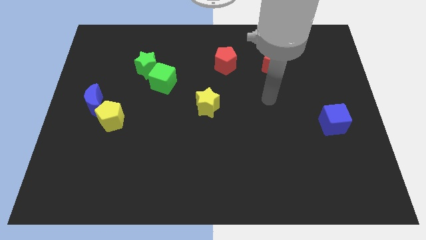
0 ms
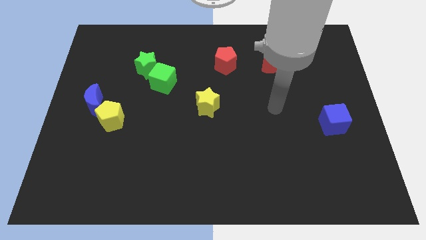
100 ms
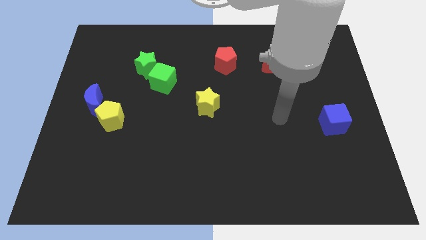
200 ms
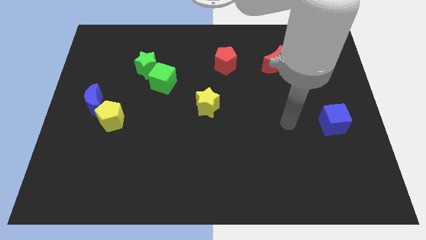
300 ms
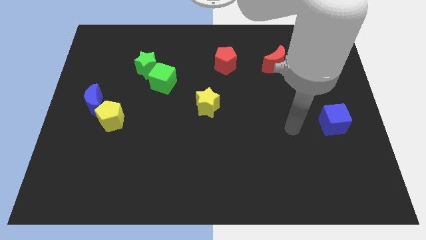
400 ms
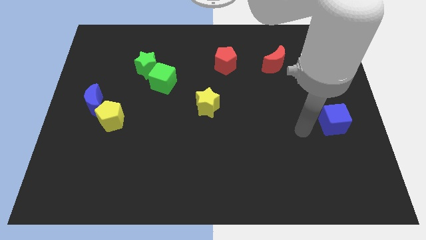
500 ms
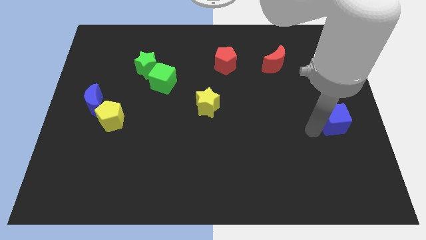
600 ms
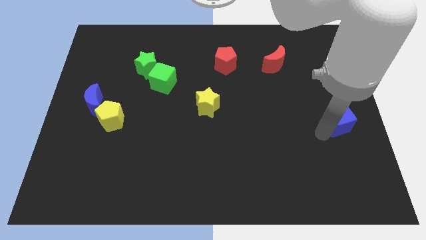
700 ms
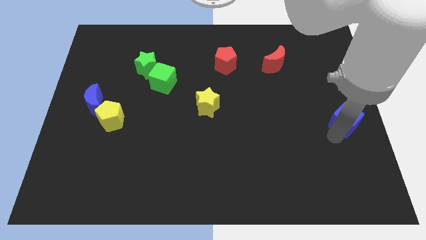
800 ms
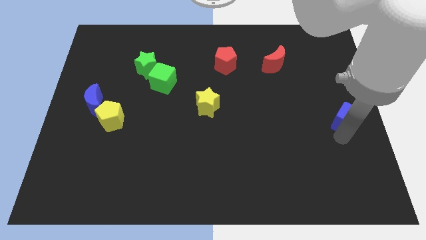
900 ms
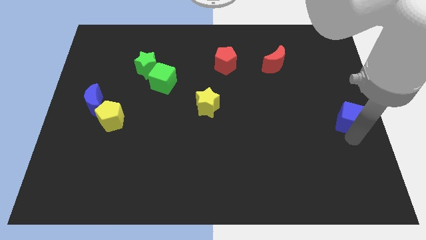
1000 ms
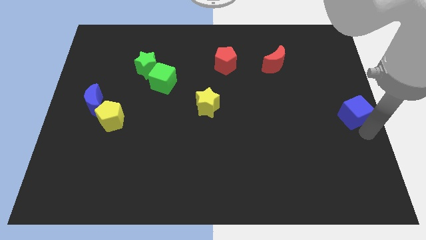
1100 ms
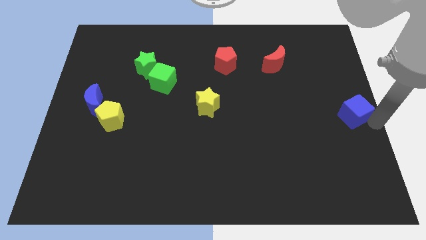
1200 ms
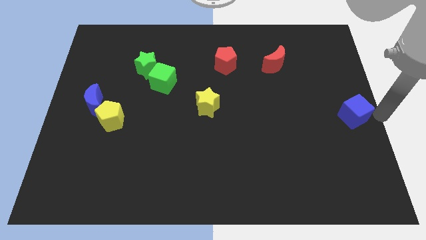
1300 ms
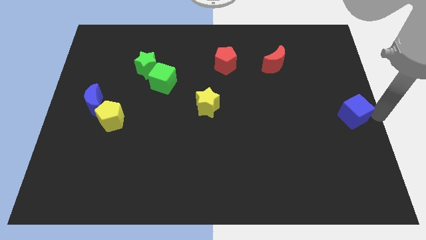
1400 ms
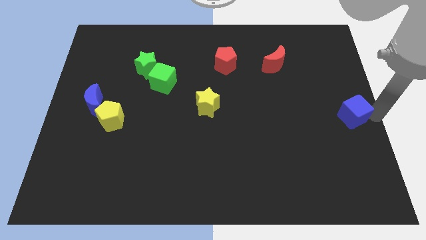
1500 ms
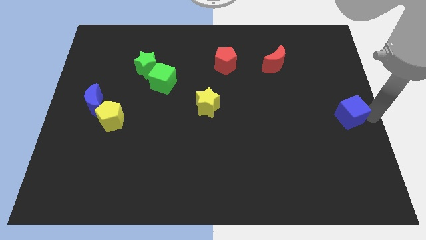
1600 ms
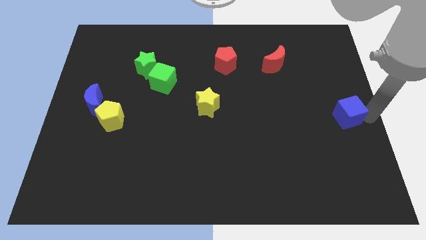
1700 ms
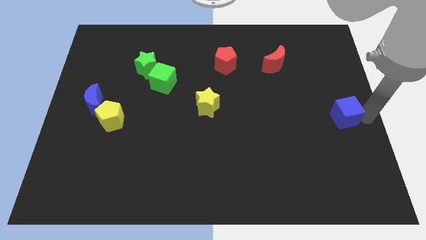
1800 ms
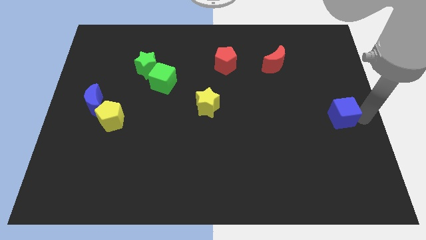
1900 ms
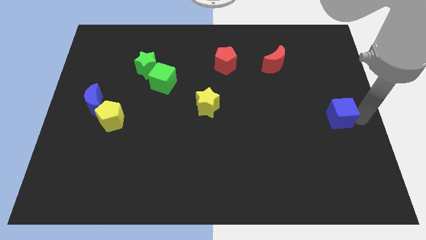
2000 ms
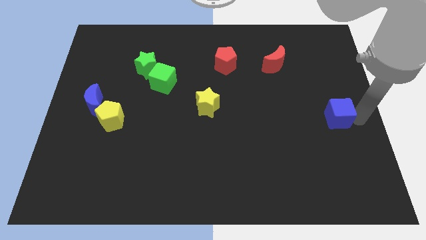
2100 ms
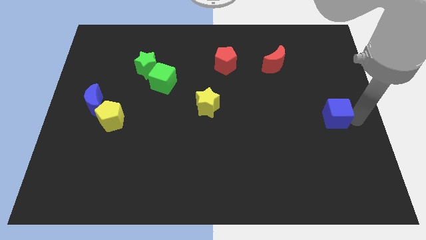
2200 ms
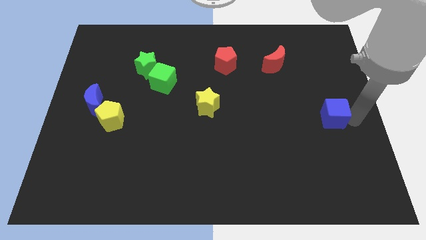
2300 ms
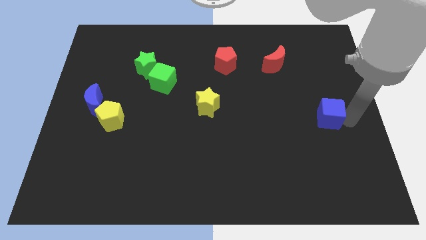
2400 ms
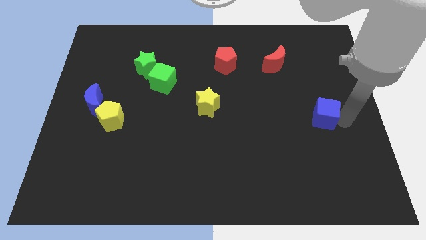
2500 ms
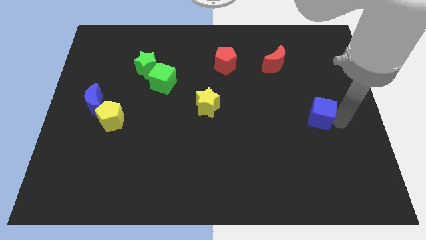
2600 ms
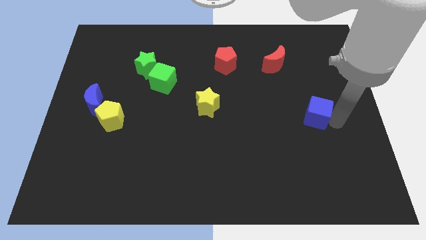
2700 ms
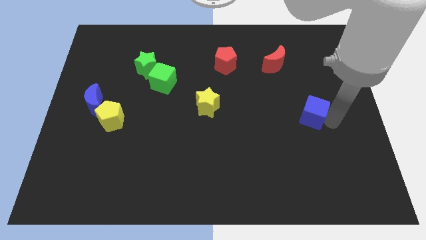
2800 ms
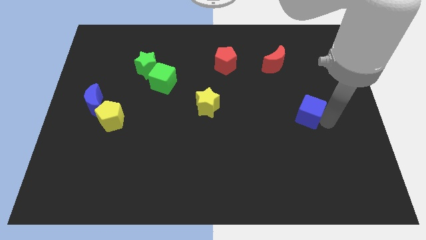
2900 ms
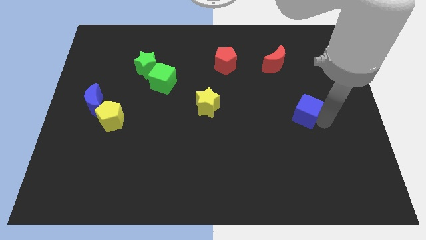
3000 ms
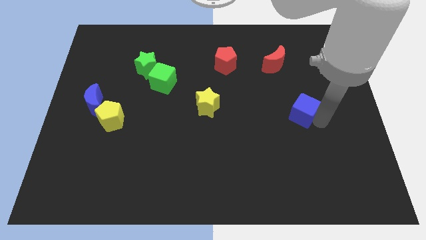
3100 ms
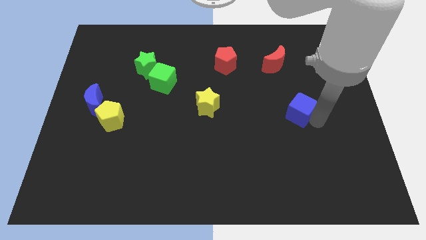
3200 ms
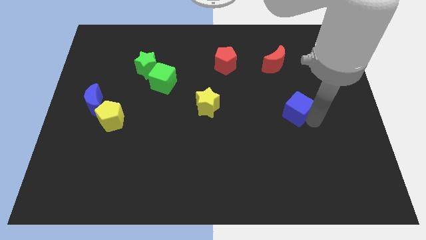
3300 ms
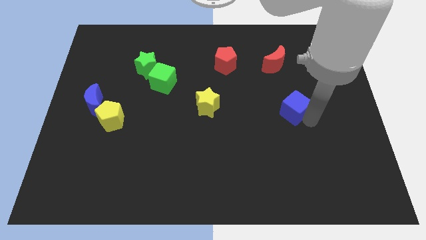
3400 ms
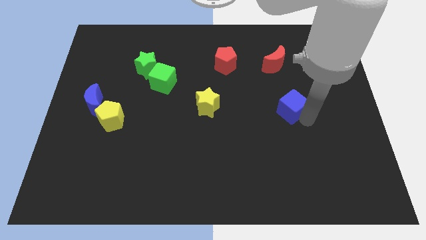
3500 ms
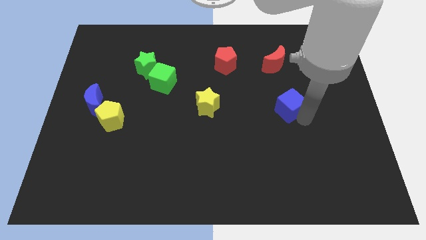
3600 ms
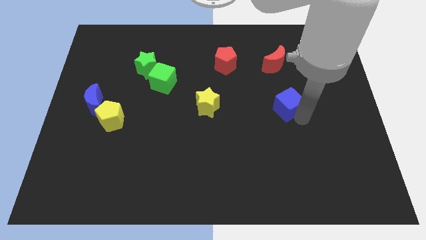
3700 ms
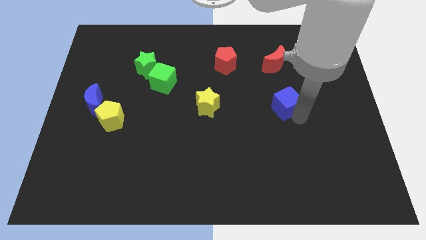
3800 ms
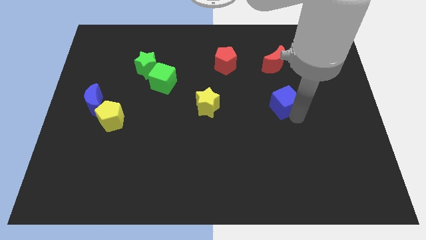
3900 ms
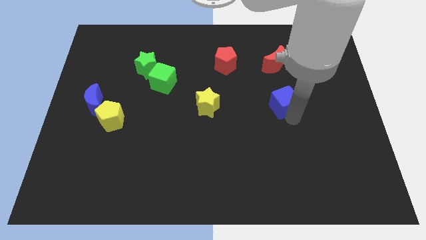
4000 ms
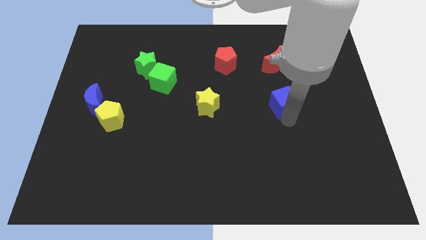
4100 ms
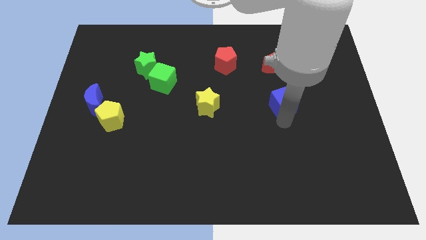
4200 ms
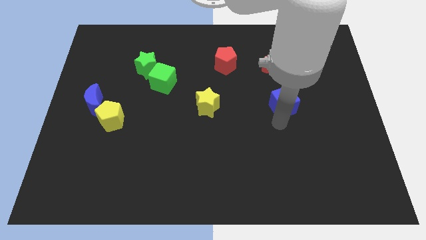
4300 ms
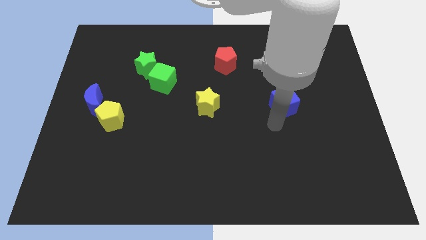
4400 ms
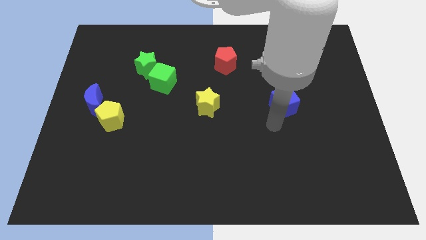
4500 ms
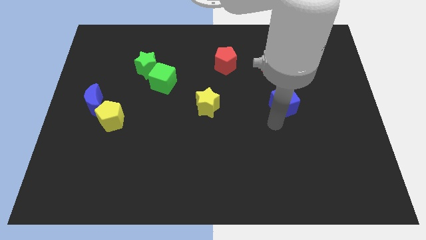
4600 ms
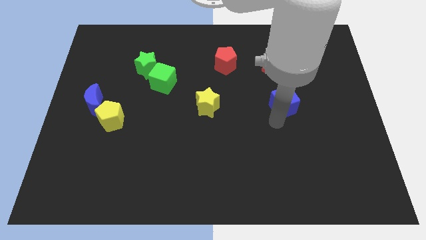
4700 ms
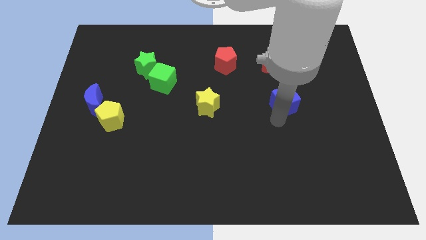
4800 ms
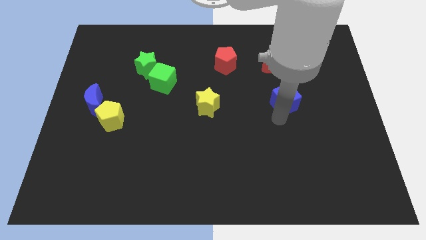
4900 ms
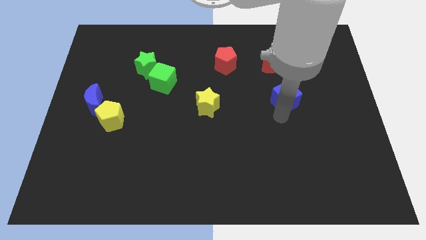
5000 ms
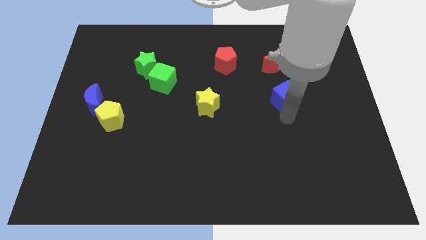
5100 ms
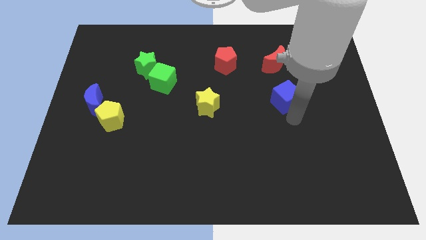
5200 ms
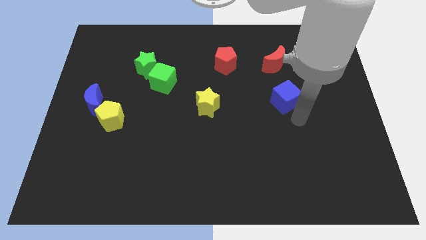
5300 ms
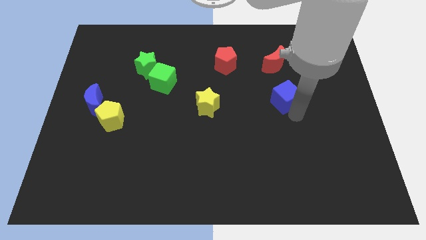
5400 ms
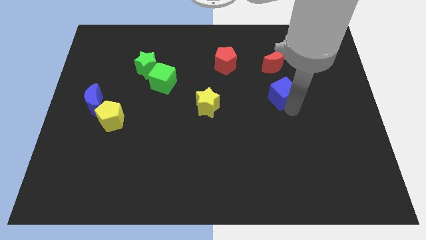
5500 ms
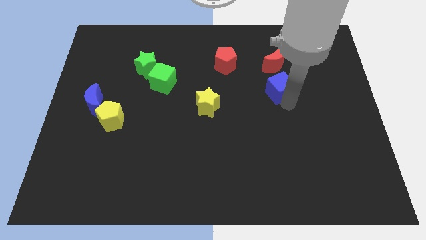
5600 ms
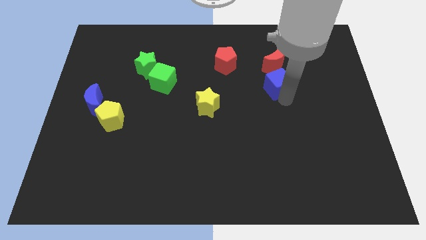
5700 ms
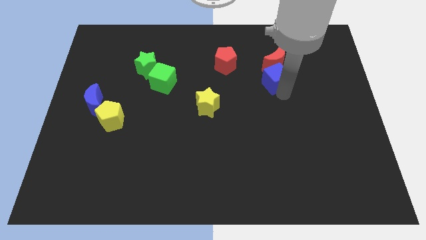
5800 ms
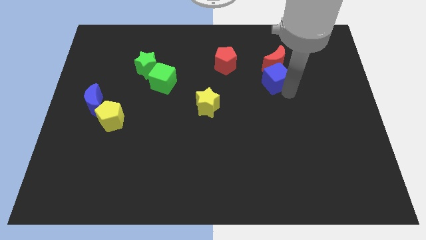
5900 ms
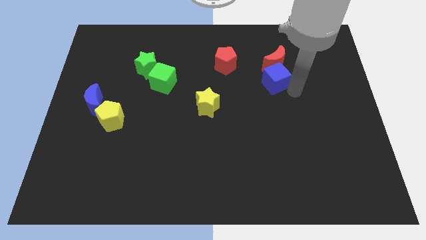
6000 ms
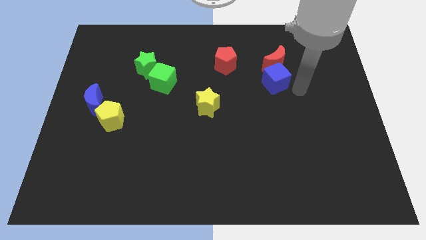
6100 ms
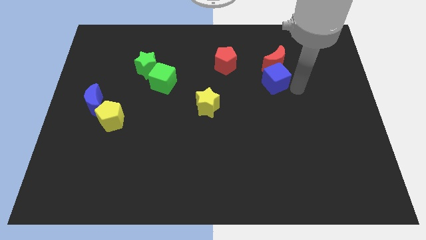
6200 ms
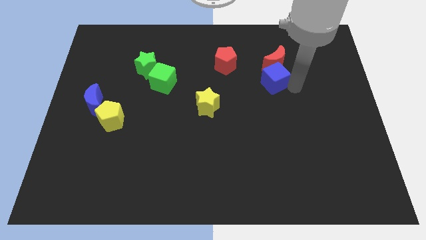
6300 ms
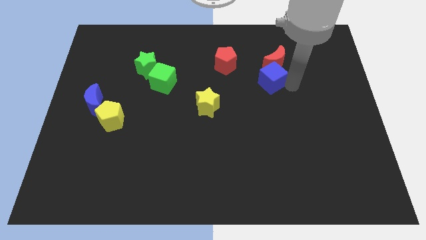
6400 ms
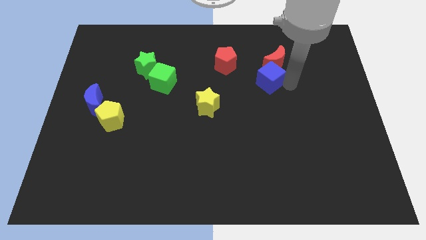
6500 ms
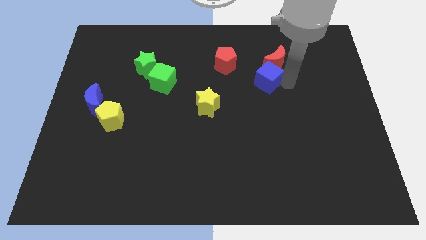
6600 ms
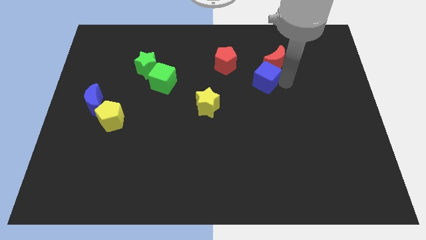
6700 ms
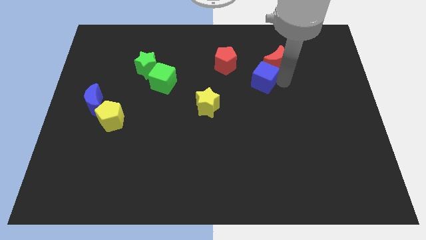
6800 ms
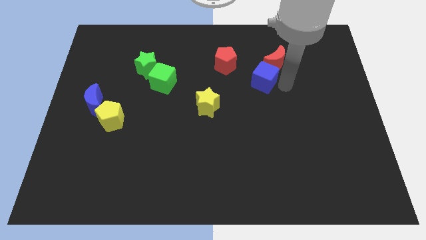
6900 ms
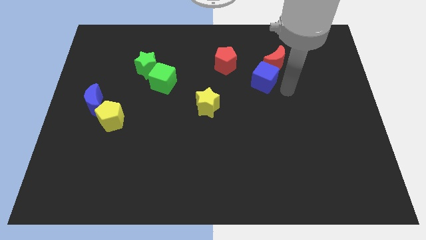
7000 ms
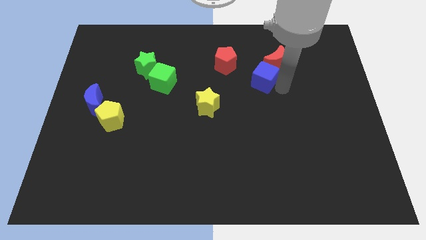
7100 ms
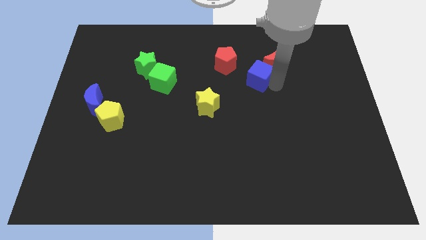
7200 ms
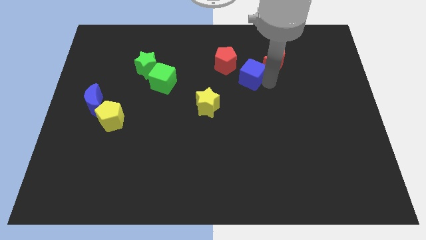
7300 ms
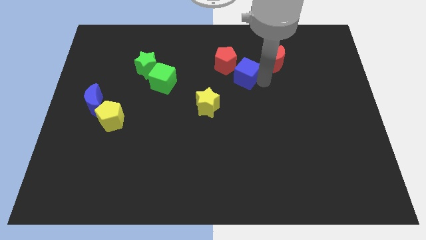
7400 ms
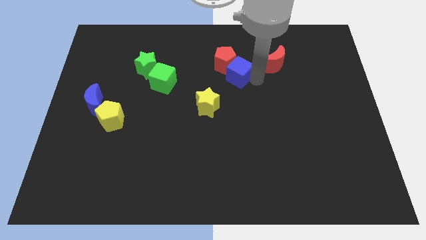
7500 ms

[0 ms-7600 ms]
move the blue cube towards the red pentagon

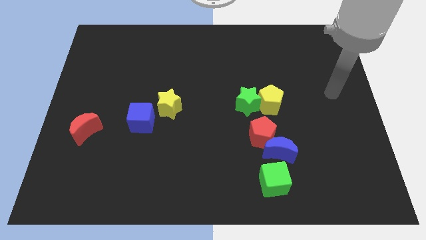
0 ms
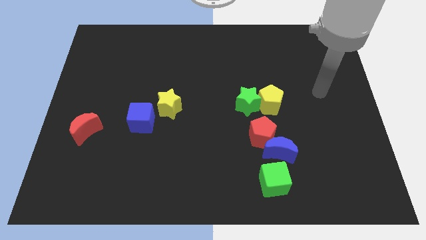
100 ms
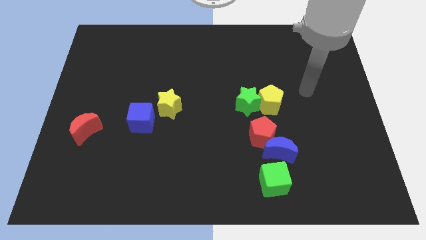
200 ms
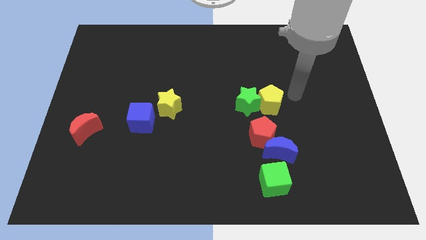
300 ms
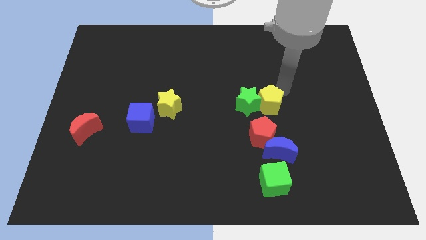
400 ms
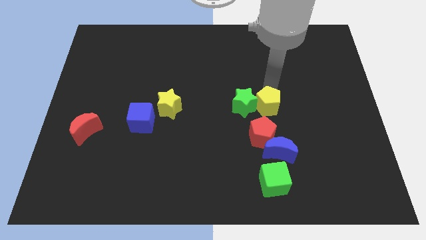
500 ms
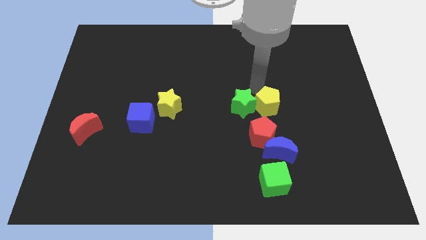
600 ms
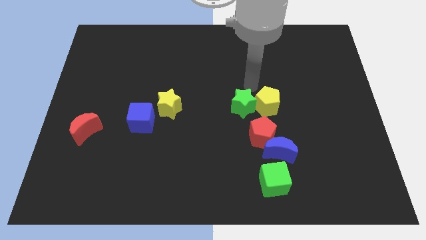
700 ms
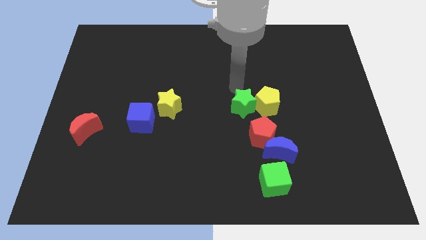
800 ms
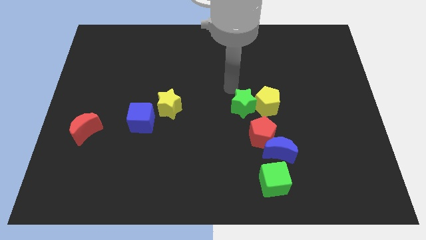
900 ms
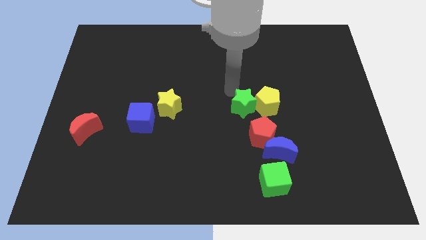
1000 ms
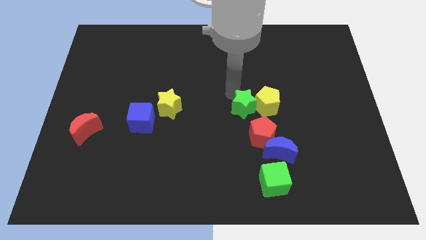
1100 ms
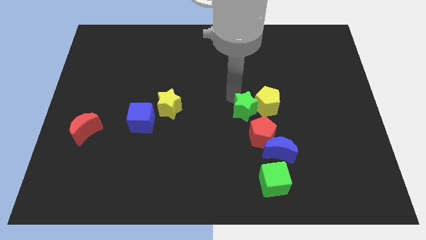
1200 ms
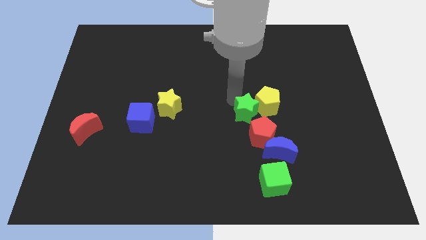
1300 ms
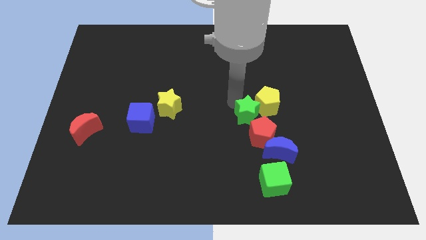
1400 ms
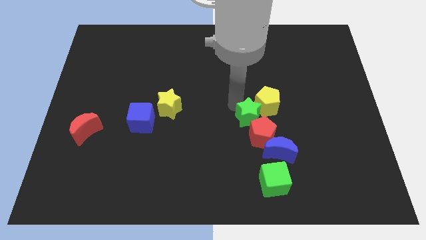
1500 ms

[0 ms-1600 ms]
slide the green star close to the red pentagon
